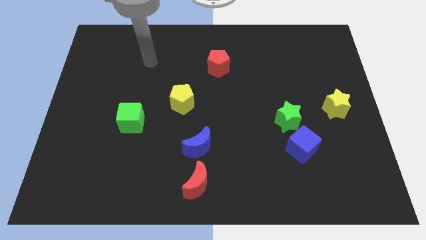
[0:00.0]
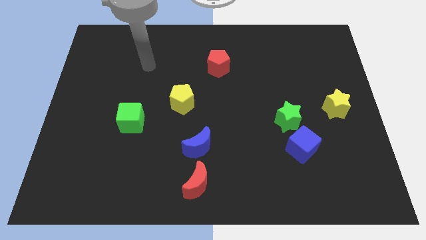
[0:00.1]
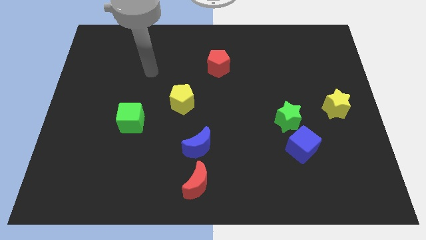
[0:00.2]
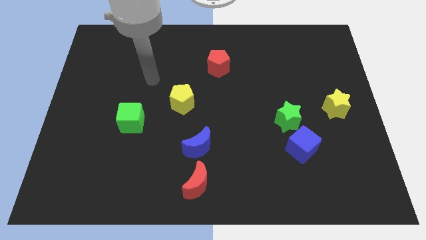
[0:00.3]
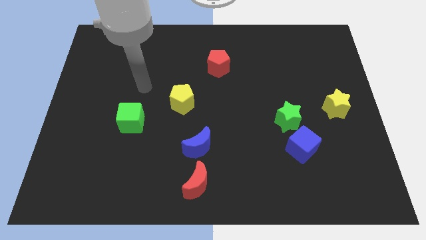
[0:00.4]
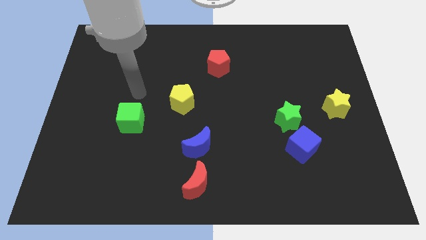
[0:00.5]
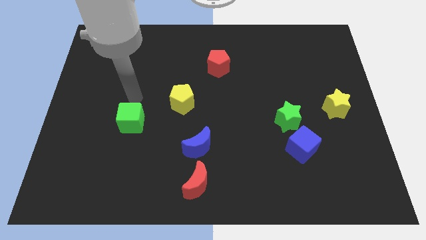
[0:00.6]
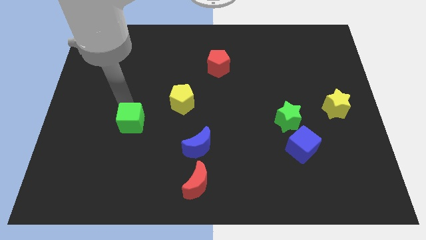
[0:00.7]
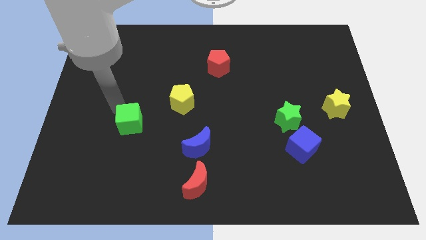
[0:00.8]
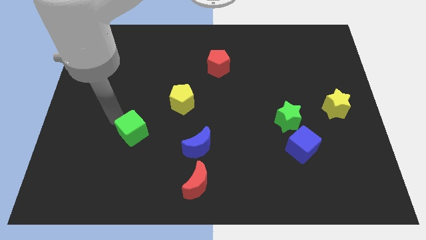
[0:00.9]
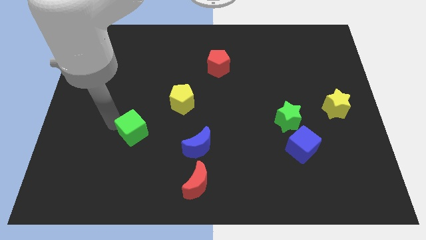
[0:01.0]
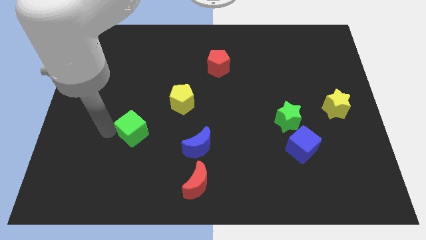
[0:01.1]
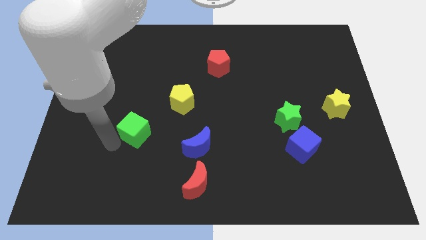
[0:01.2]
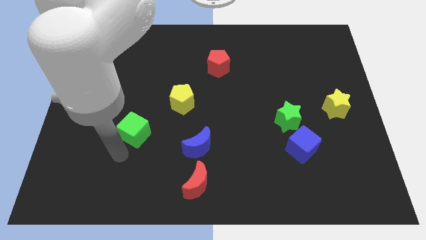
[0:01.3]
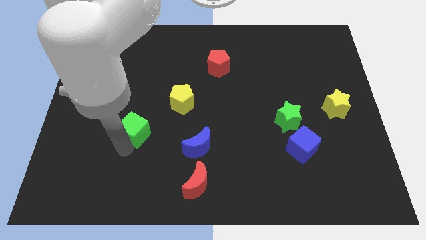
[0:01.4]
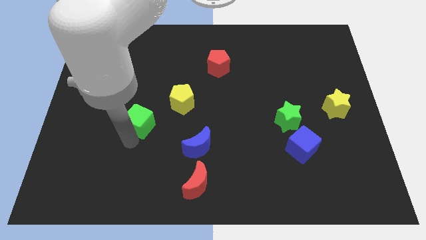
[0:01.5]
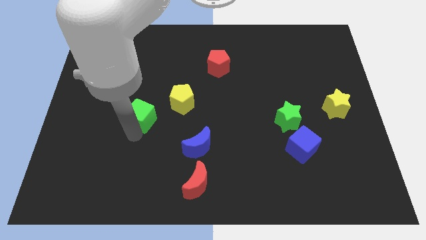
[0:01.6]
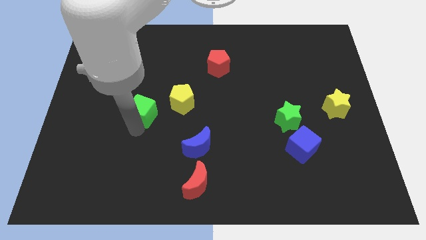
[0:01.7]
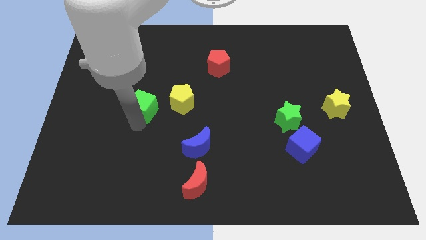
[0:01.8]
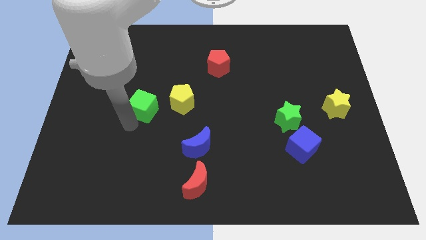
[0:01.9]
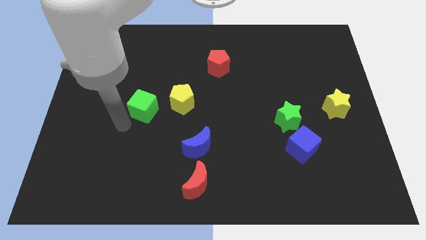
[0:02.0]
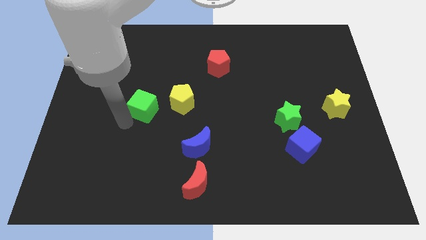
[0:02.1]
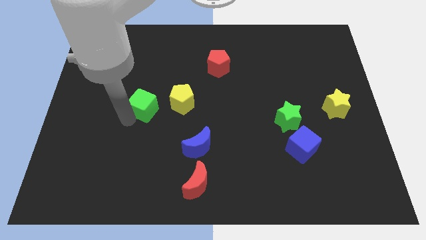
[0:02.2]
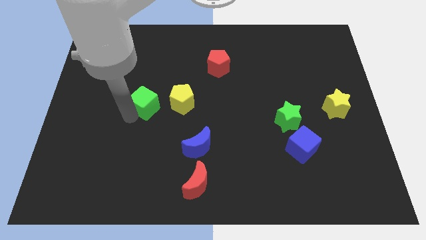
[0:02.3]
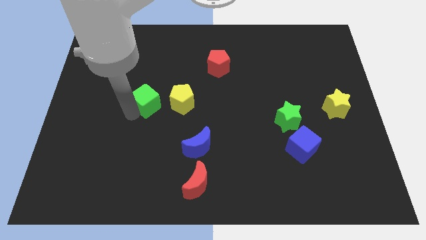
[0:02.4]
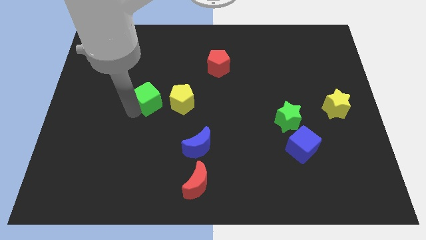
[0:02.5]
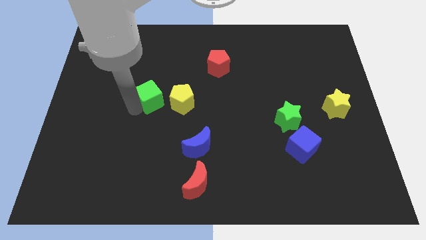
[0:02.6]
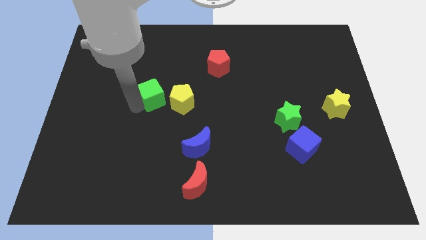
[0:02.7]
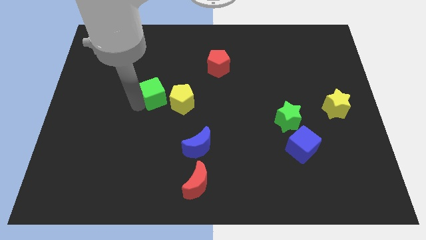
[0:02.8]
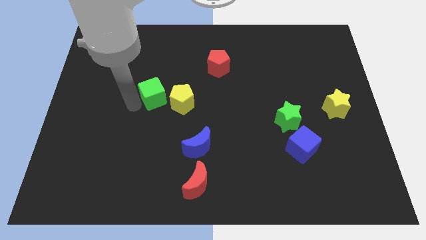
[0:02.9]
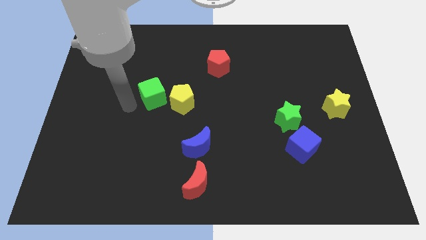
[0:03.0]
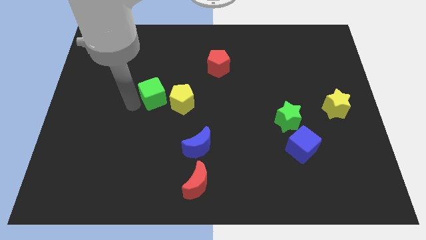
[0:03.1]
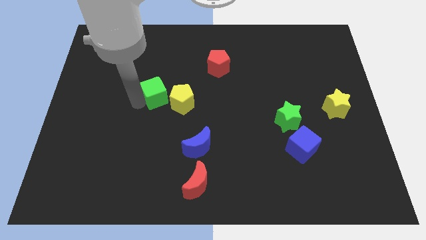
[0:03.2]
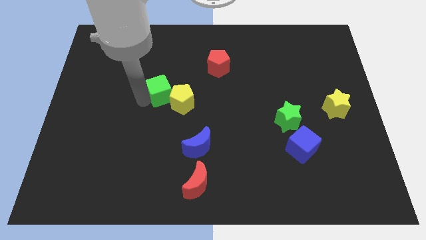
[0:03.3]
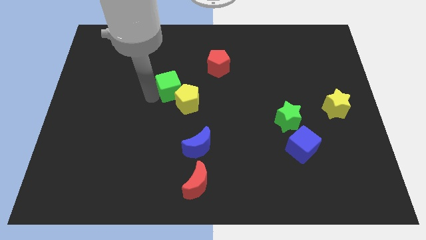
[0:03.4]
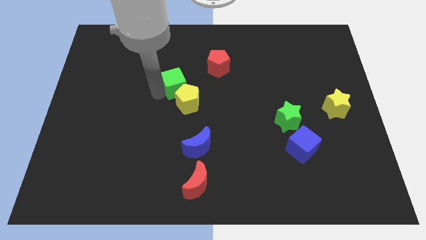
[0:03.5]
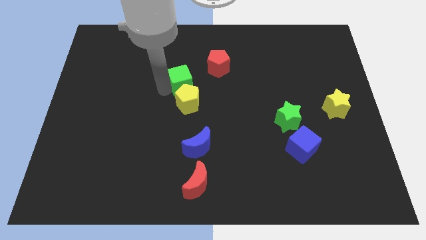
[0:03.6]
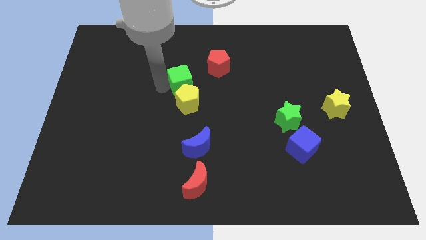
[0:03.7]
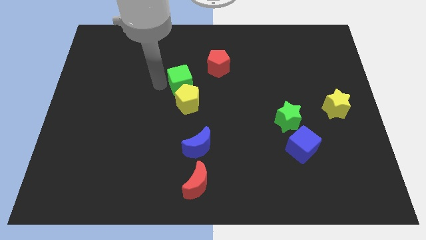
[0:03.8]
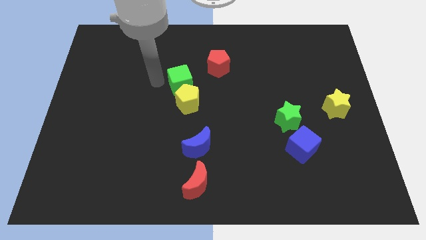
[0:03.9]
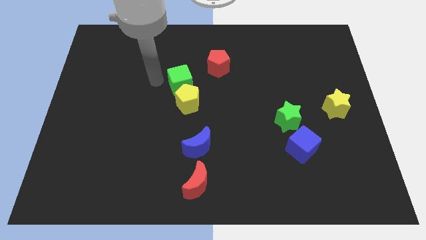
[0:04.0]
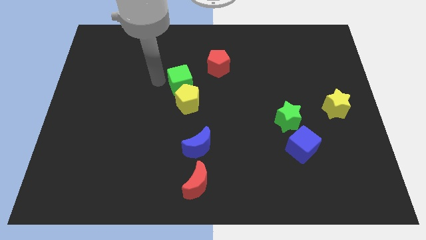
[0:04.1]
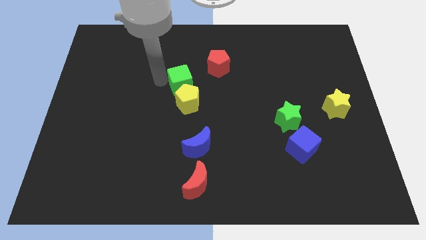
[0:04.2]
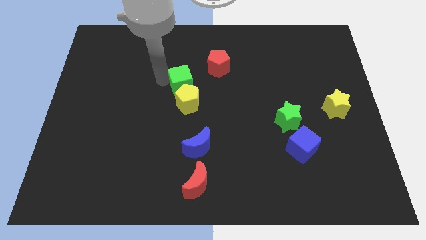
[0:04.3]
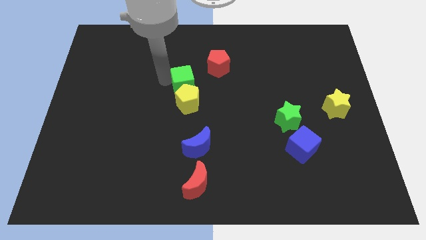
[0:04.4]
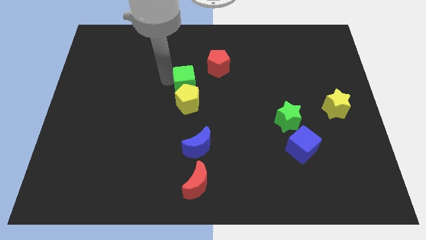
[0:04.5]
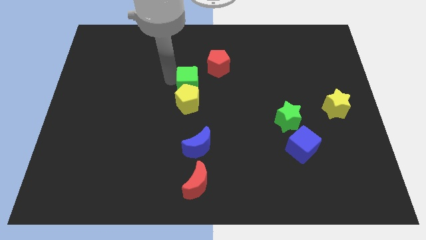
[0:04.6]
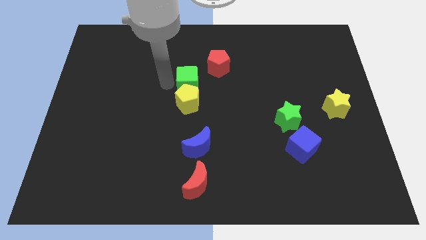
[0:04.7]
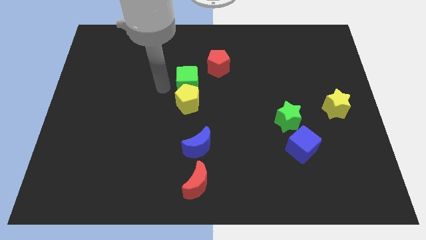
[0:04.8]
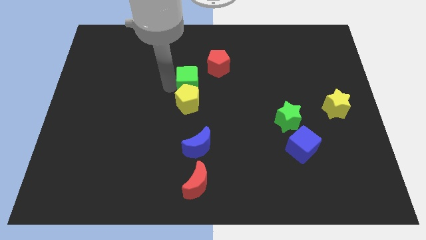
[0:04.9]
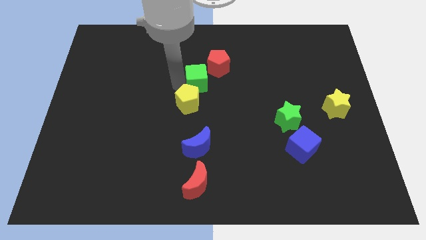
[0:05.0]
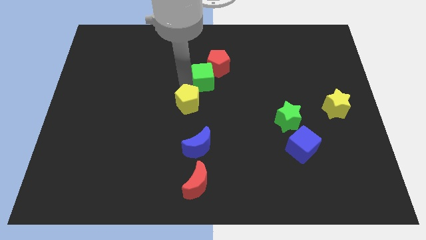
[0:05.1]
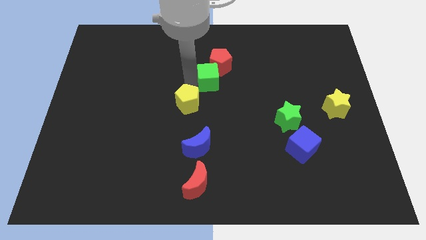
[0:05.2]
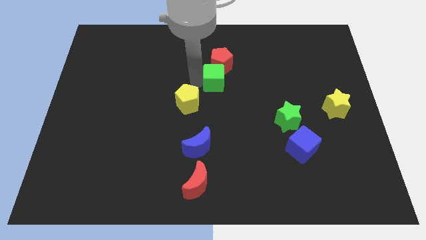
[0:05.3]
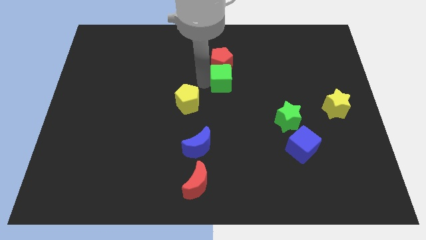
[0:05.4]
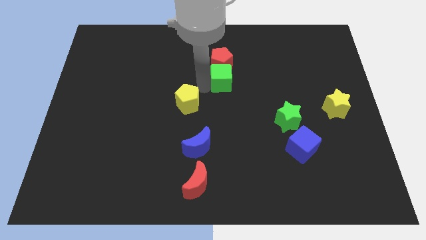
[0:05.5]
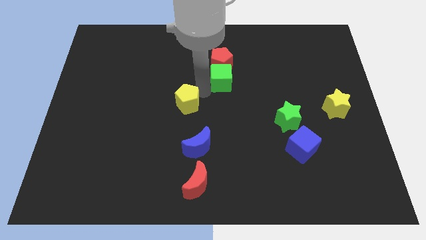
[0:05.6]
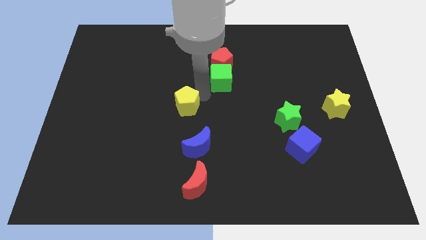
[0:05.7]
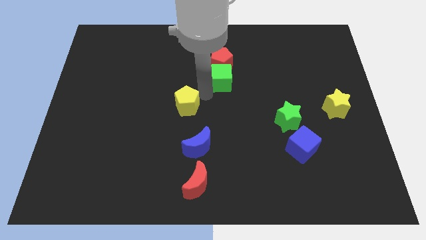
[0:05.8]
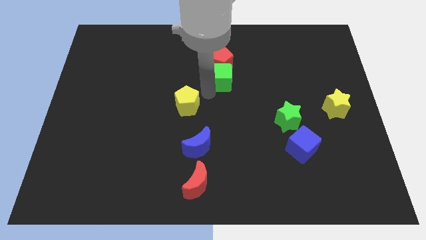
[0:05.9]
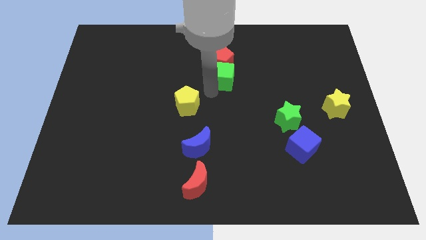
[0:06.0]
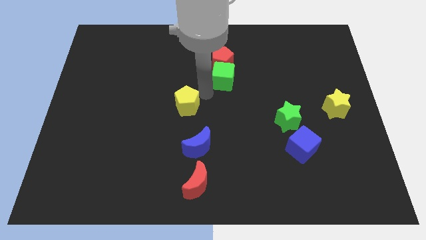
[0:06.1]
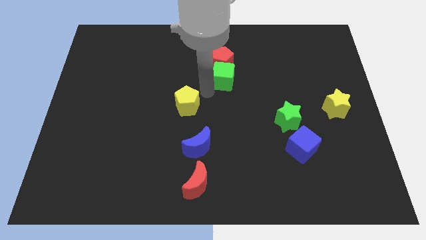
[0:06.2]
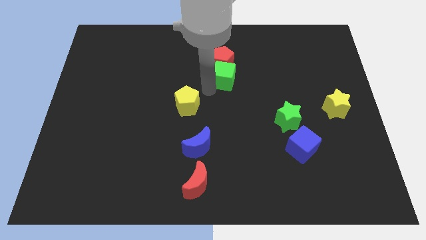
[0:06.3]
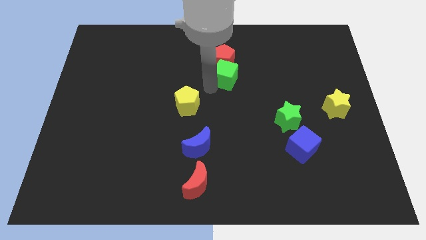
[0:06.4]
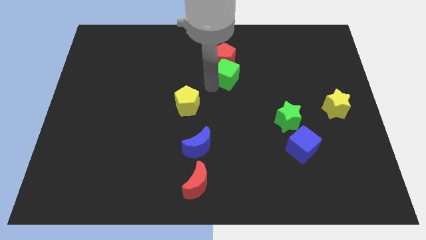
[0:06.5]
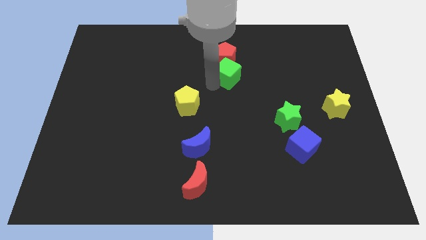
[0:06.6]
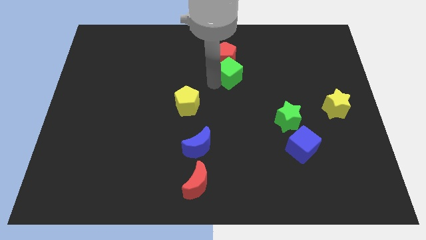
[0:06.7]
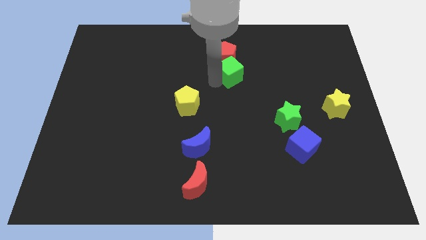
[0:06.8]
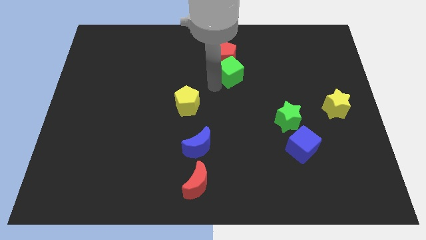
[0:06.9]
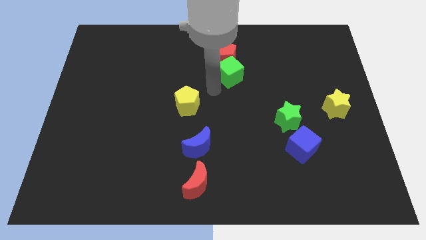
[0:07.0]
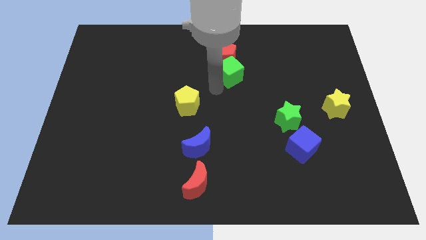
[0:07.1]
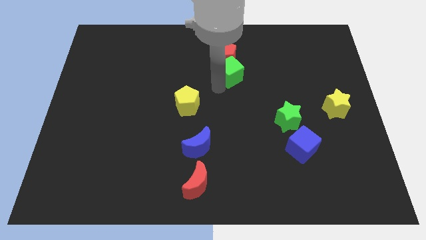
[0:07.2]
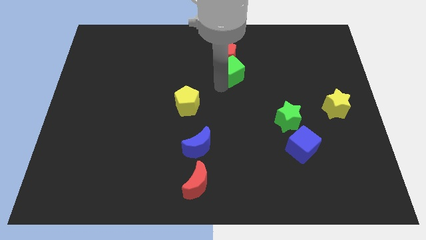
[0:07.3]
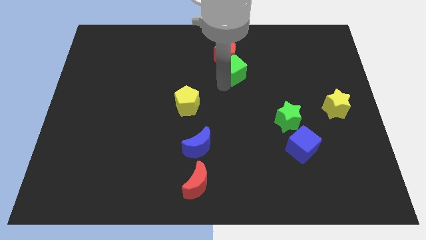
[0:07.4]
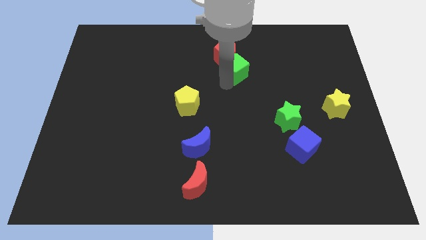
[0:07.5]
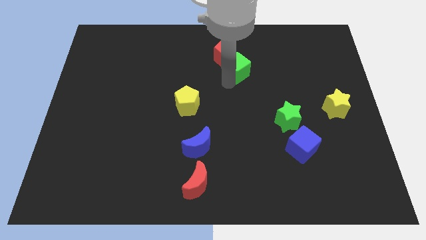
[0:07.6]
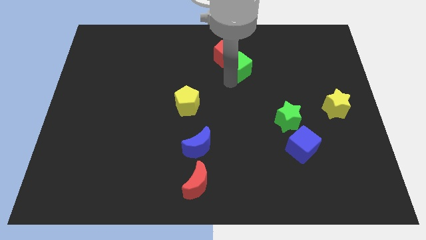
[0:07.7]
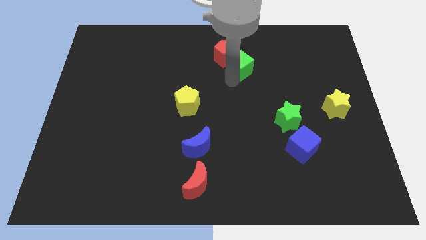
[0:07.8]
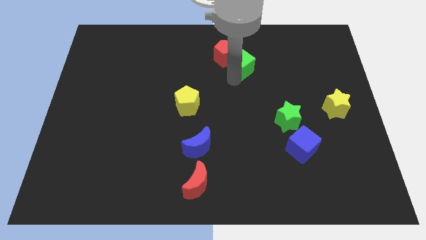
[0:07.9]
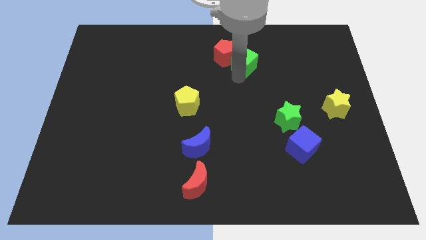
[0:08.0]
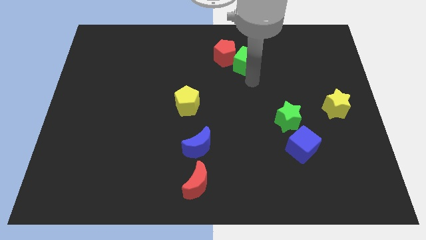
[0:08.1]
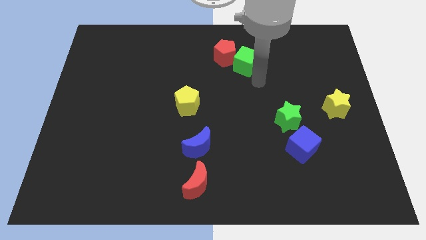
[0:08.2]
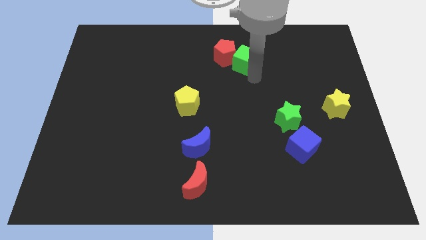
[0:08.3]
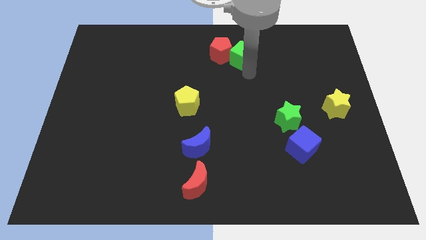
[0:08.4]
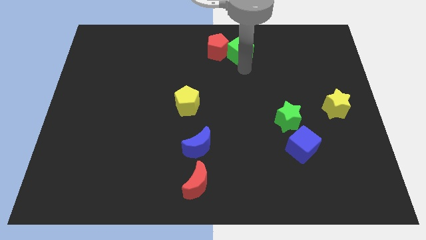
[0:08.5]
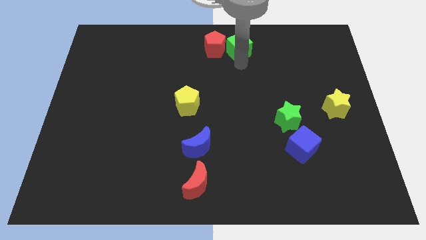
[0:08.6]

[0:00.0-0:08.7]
move the green cube to the top side
